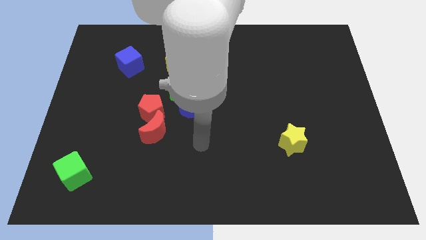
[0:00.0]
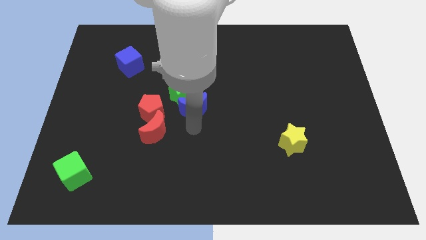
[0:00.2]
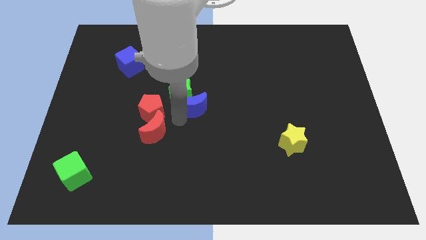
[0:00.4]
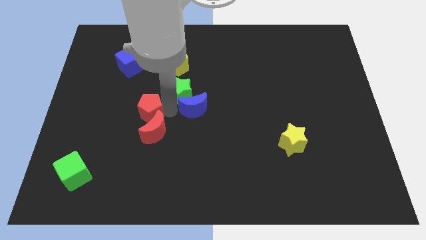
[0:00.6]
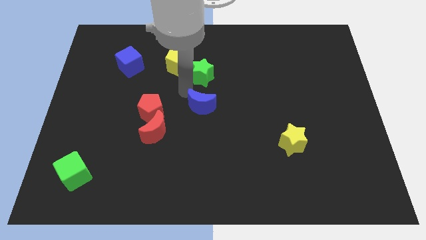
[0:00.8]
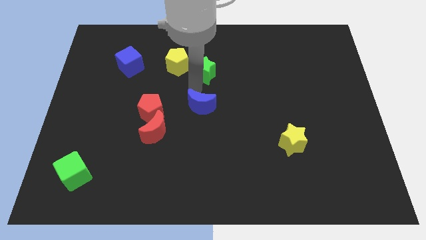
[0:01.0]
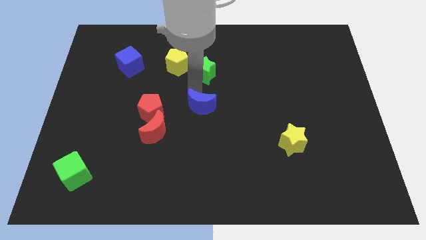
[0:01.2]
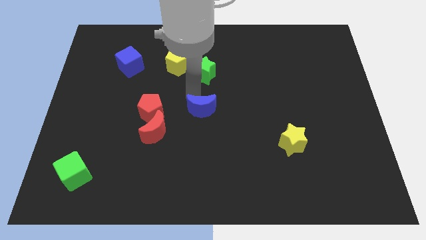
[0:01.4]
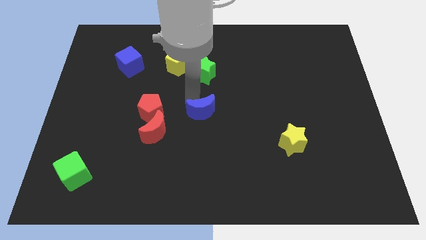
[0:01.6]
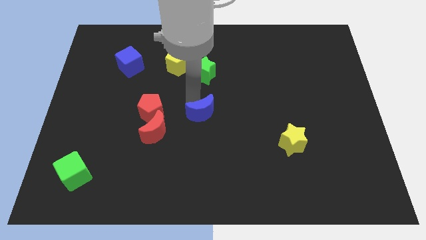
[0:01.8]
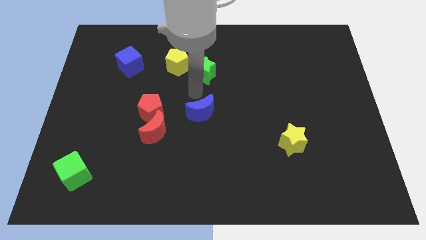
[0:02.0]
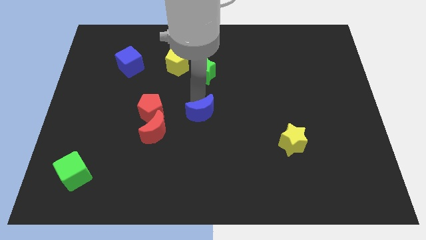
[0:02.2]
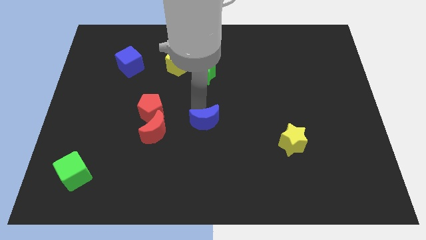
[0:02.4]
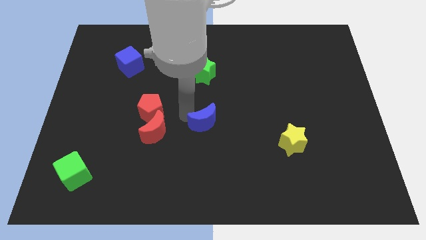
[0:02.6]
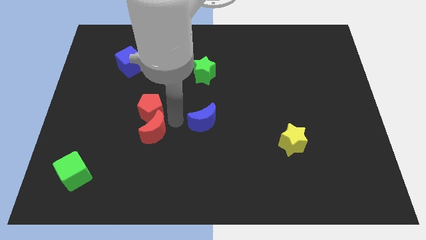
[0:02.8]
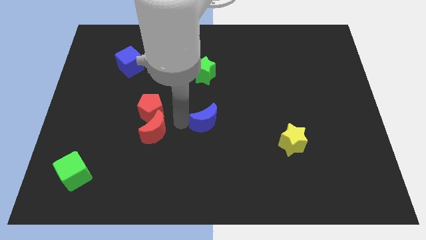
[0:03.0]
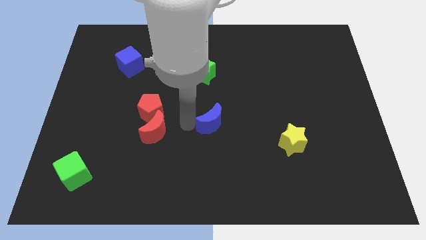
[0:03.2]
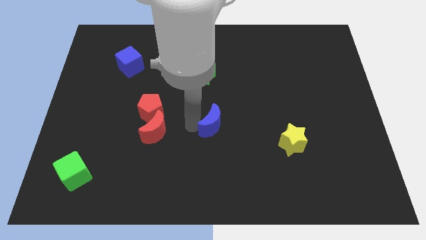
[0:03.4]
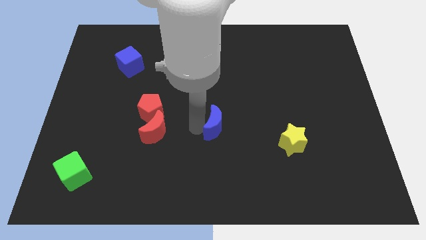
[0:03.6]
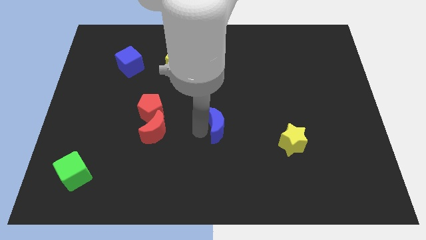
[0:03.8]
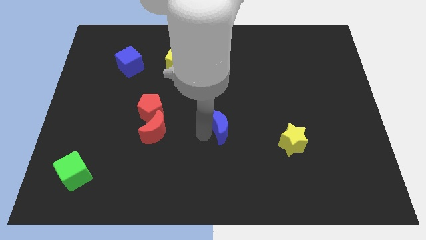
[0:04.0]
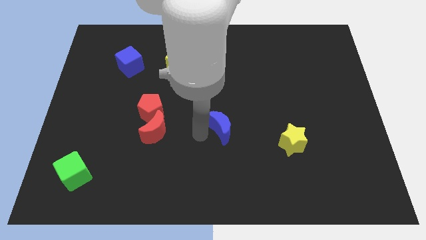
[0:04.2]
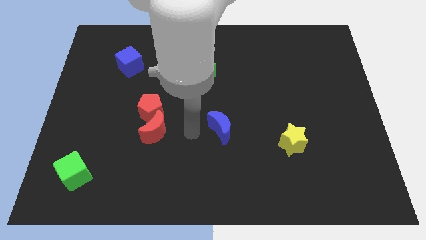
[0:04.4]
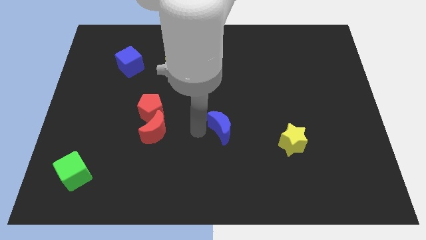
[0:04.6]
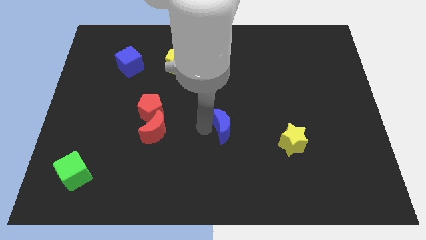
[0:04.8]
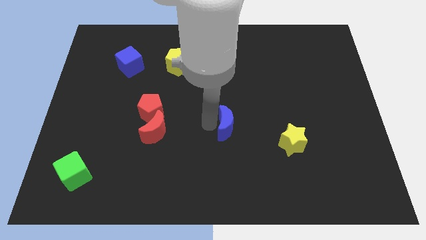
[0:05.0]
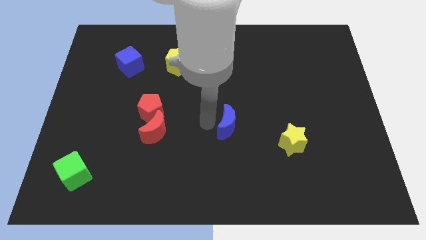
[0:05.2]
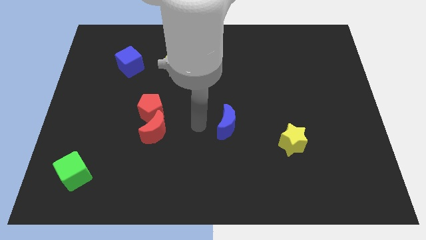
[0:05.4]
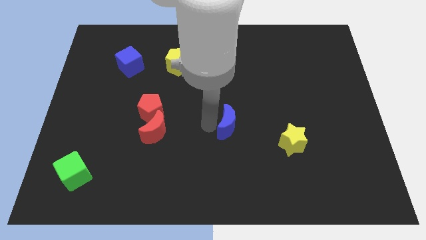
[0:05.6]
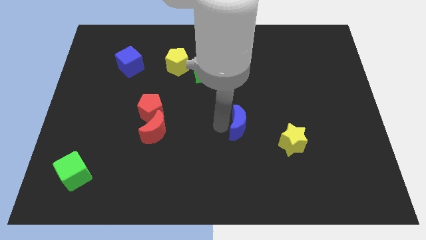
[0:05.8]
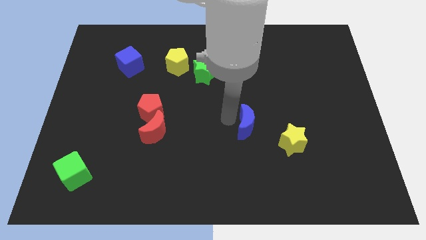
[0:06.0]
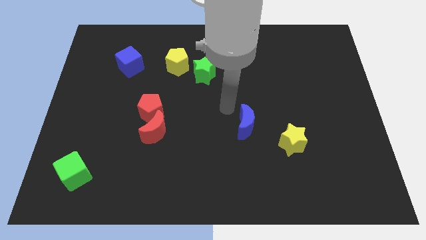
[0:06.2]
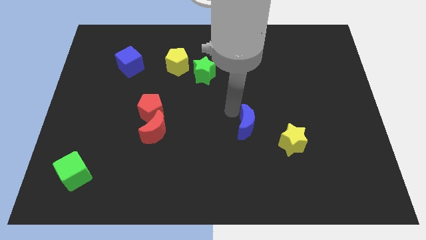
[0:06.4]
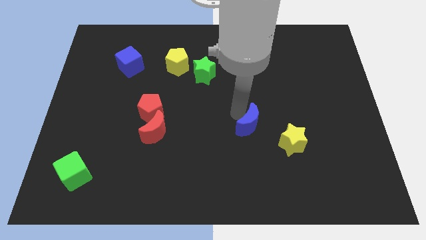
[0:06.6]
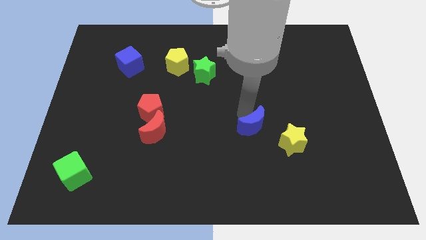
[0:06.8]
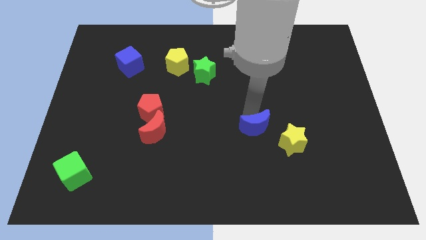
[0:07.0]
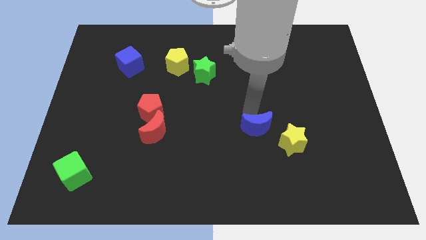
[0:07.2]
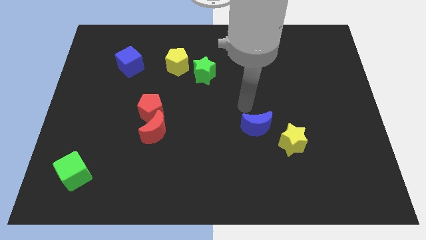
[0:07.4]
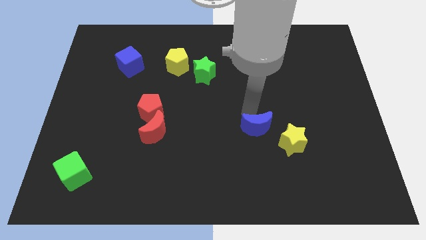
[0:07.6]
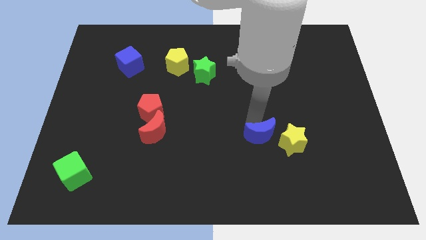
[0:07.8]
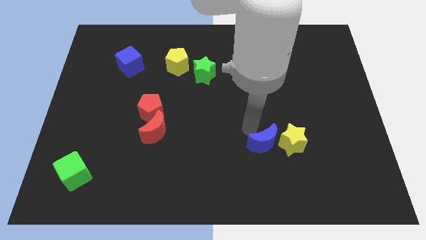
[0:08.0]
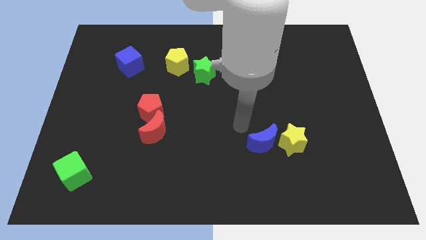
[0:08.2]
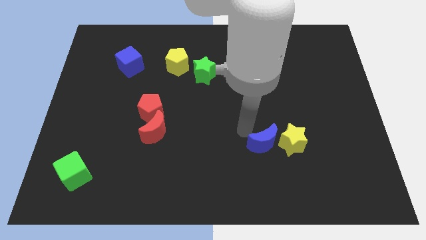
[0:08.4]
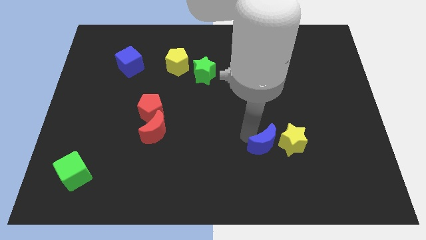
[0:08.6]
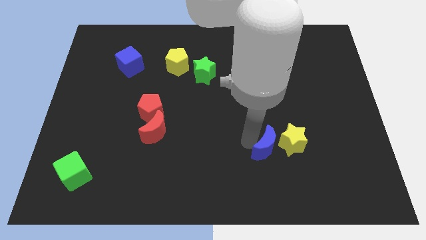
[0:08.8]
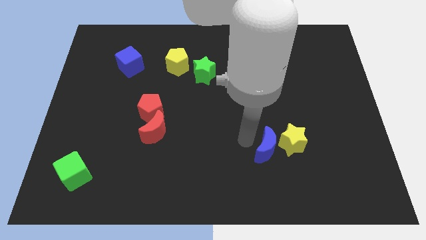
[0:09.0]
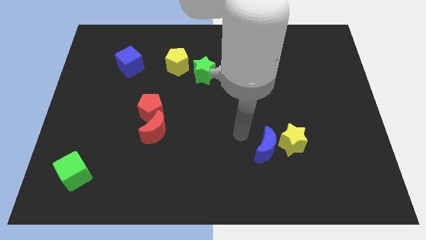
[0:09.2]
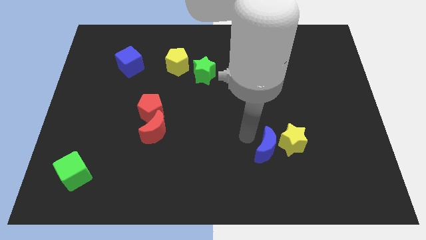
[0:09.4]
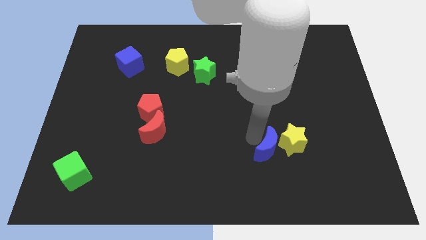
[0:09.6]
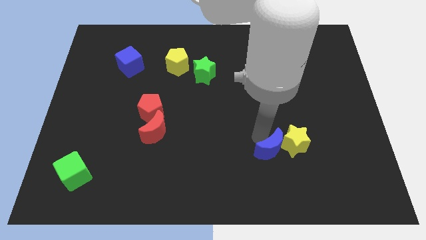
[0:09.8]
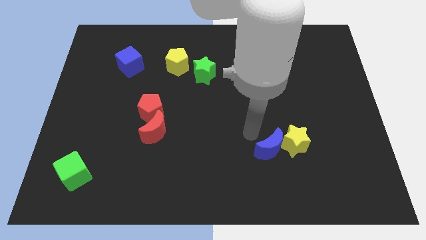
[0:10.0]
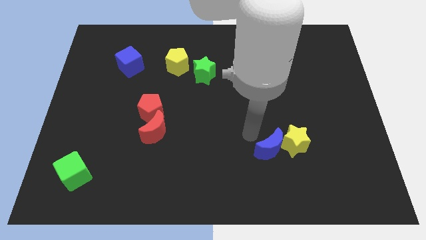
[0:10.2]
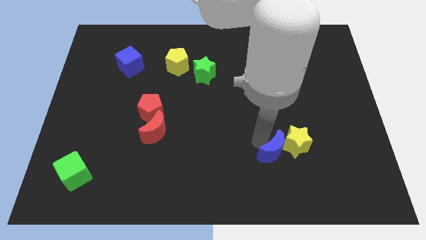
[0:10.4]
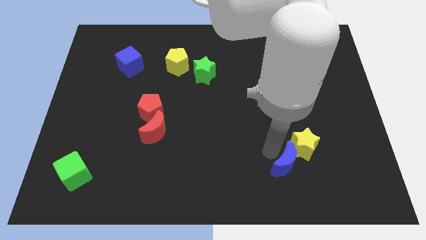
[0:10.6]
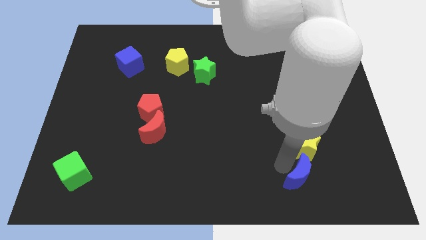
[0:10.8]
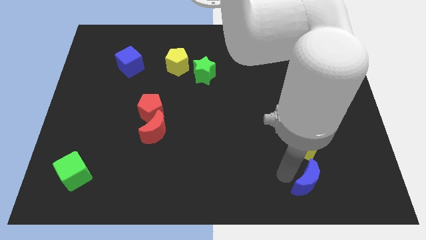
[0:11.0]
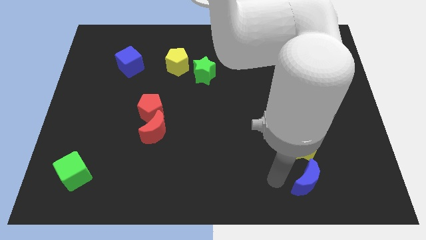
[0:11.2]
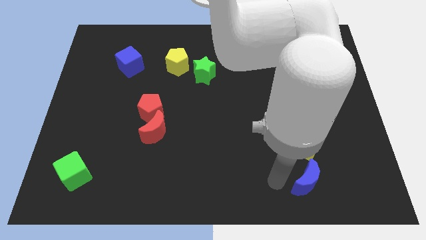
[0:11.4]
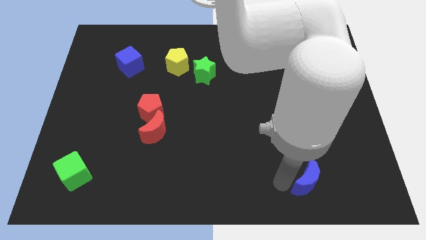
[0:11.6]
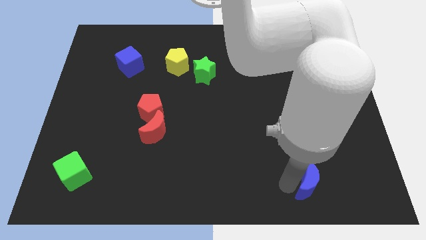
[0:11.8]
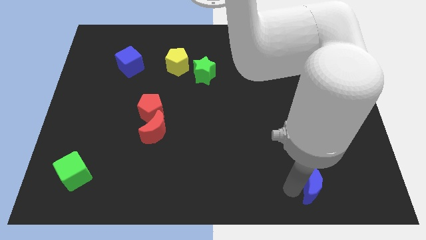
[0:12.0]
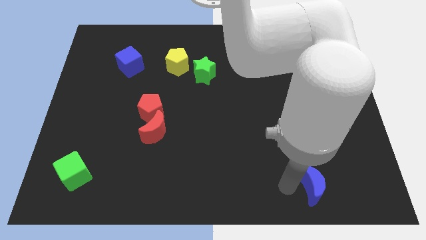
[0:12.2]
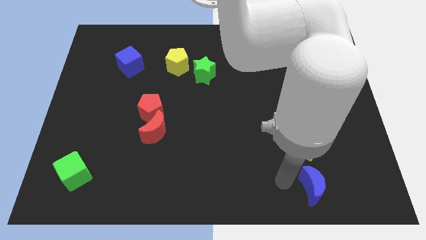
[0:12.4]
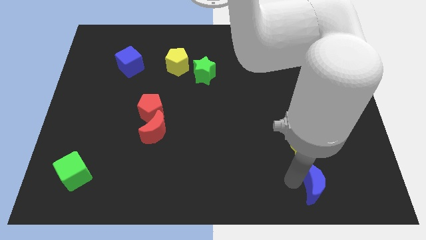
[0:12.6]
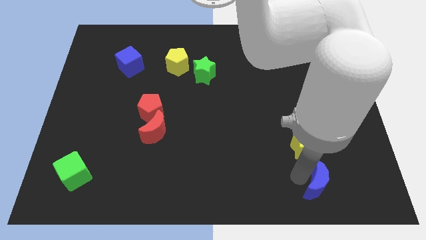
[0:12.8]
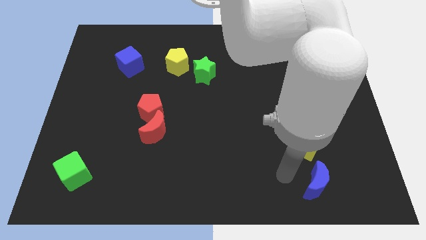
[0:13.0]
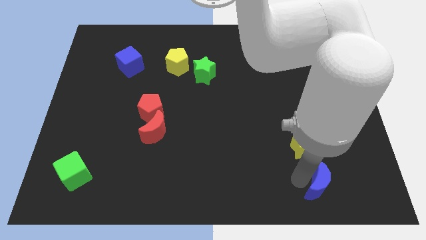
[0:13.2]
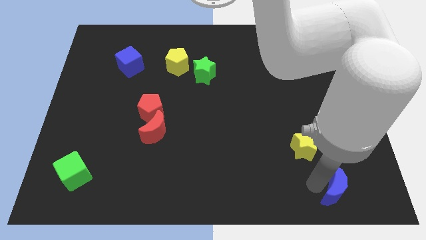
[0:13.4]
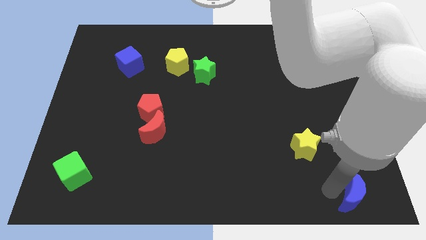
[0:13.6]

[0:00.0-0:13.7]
put the blue moon to the bottom right of the board
